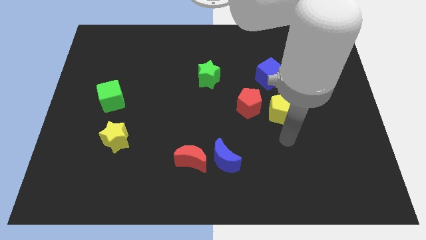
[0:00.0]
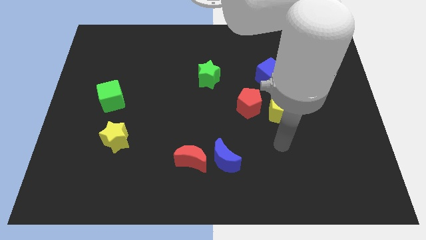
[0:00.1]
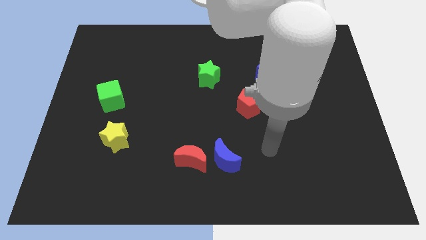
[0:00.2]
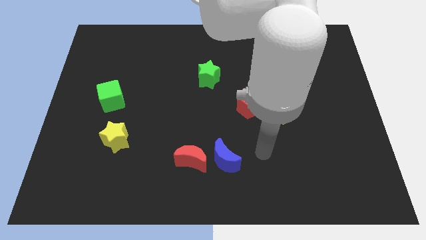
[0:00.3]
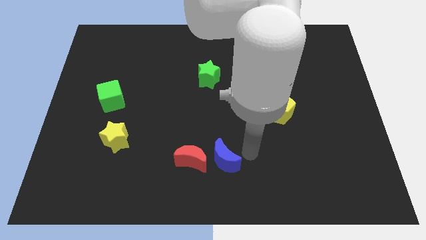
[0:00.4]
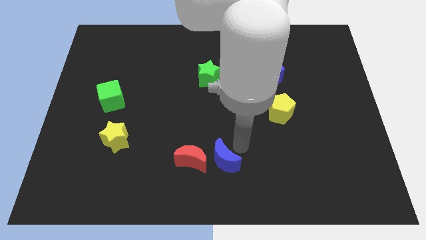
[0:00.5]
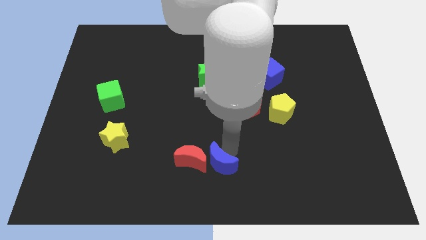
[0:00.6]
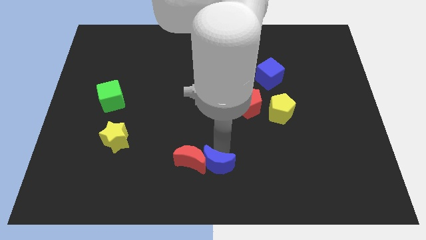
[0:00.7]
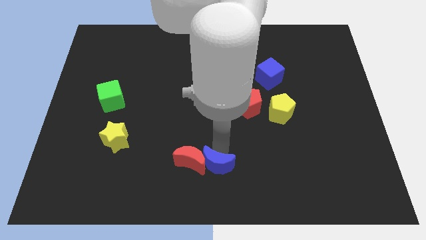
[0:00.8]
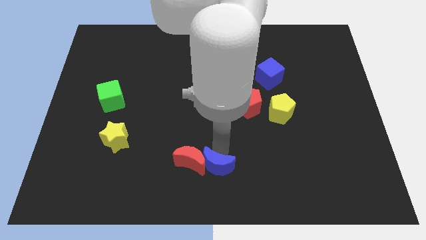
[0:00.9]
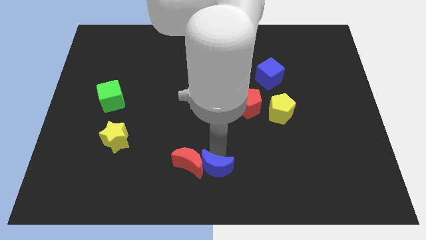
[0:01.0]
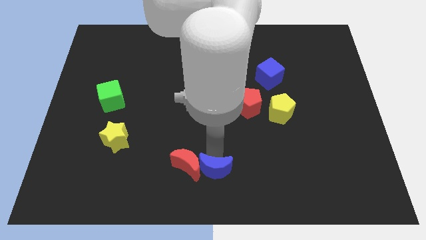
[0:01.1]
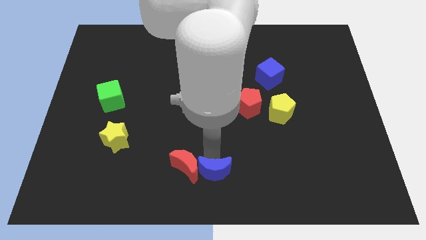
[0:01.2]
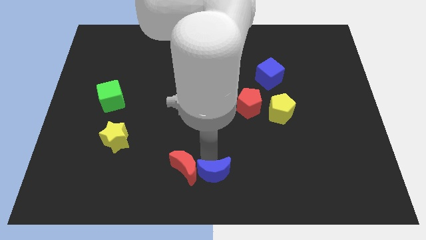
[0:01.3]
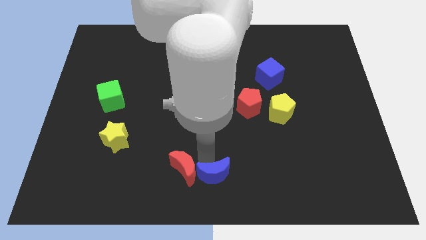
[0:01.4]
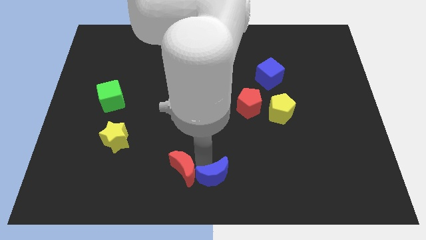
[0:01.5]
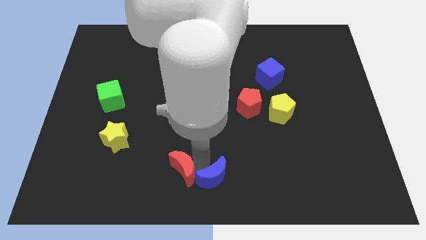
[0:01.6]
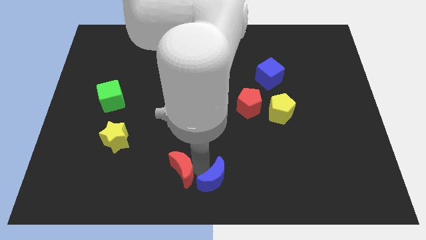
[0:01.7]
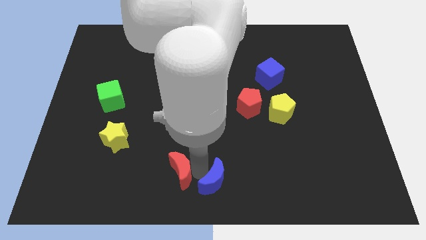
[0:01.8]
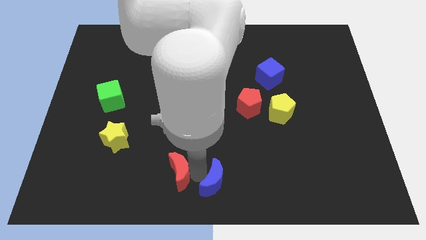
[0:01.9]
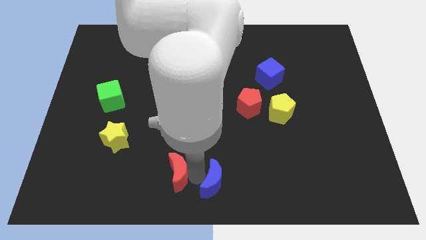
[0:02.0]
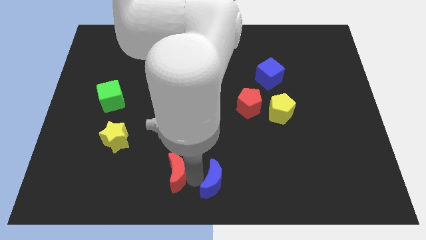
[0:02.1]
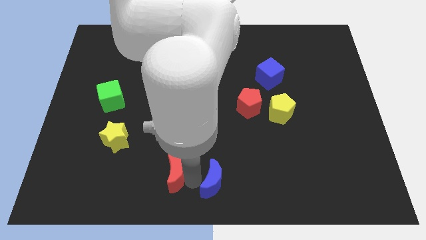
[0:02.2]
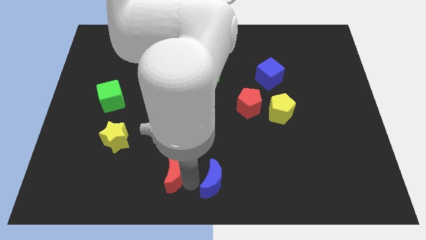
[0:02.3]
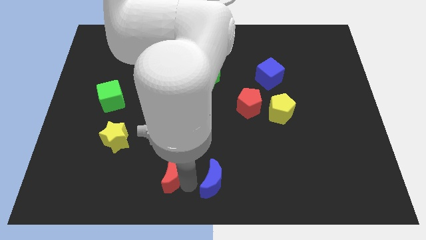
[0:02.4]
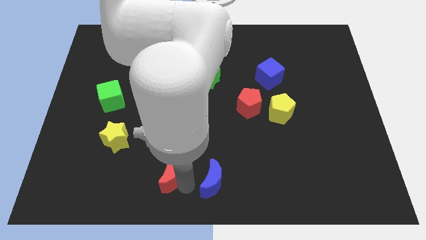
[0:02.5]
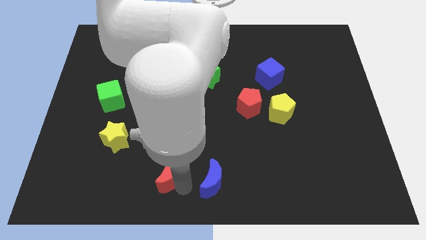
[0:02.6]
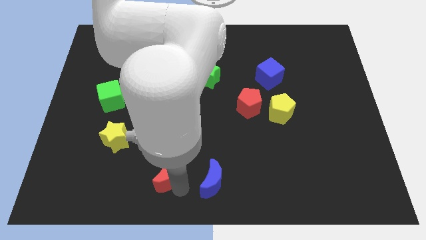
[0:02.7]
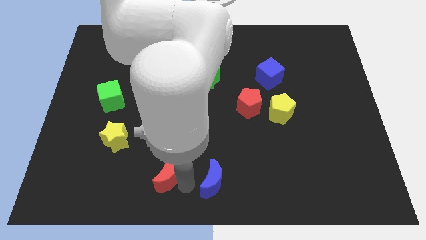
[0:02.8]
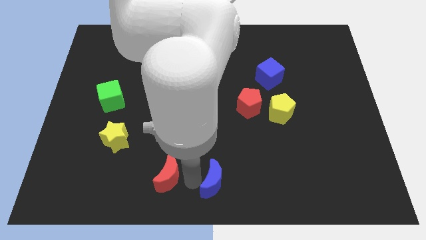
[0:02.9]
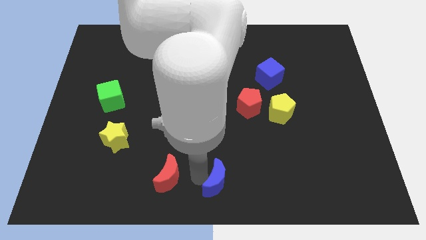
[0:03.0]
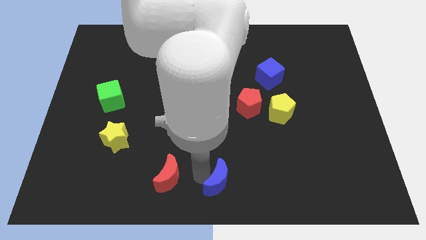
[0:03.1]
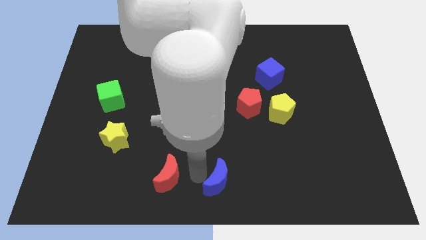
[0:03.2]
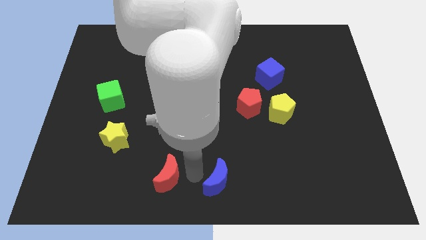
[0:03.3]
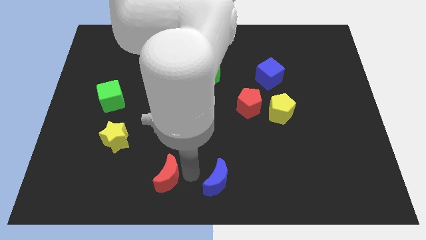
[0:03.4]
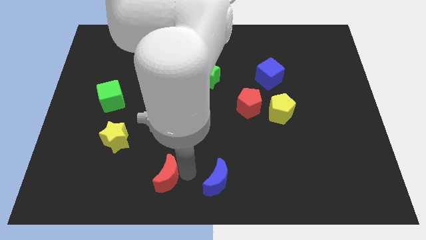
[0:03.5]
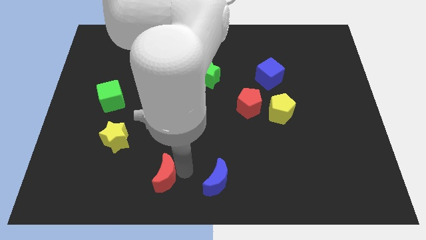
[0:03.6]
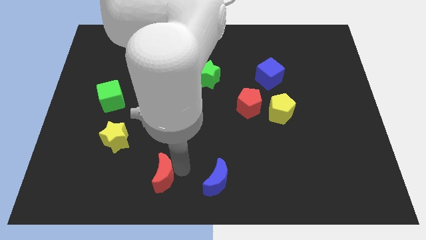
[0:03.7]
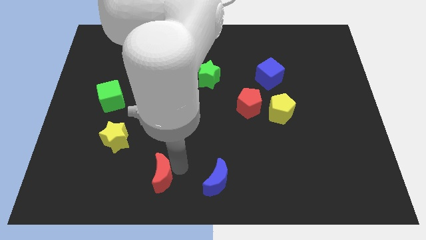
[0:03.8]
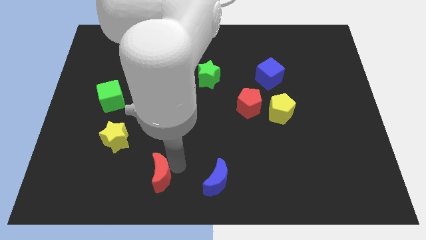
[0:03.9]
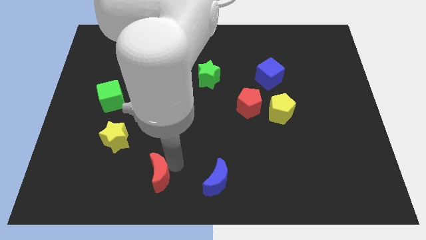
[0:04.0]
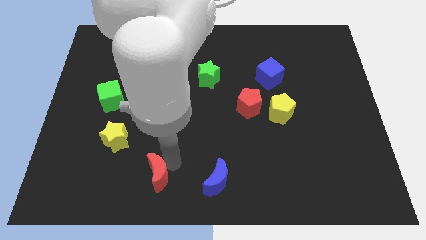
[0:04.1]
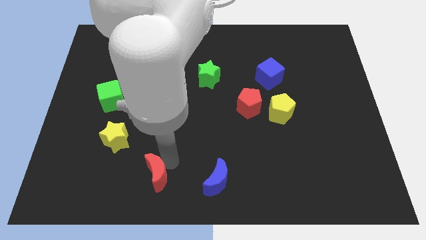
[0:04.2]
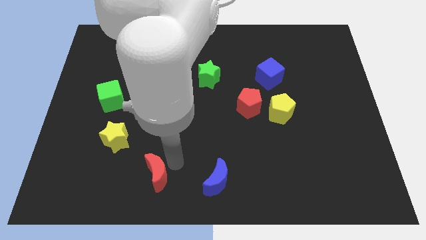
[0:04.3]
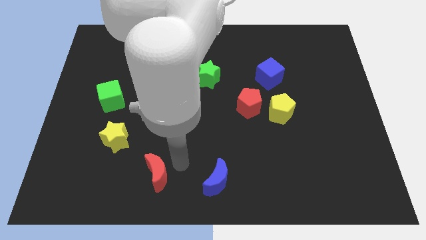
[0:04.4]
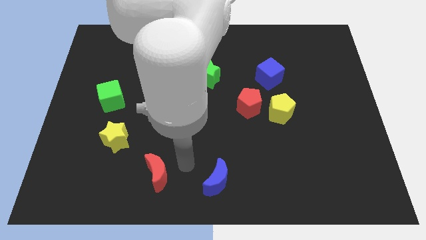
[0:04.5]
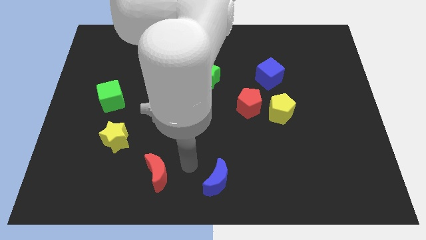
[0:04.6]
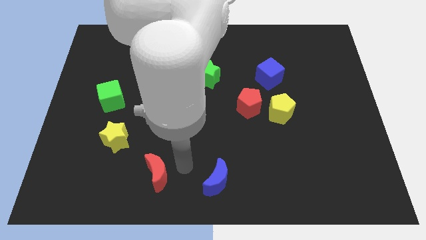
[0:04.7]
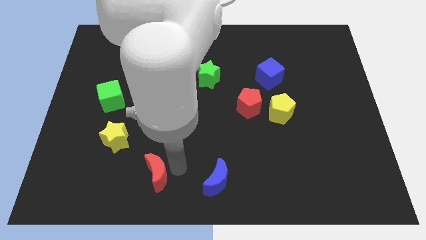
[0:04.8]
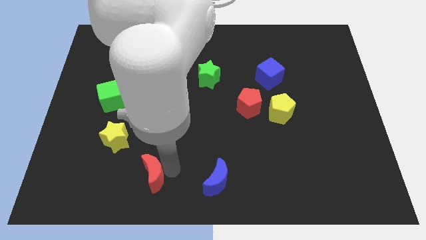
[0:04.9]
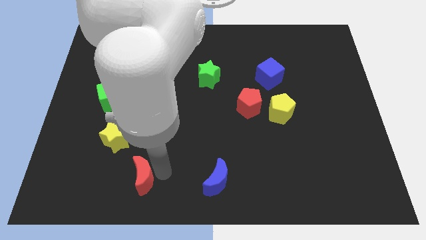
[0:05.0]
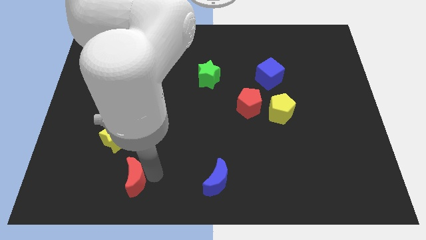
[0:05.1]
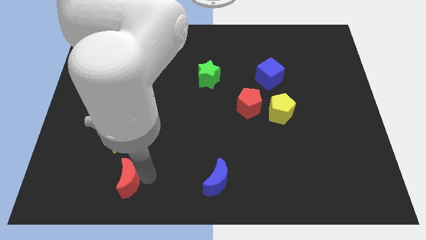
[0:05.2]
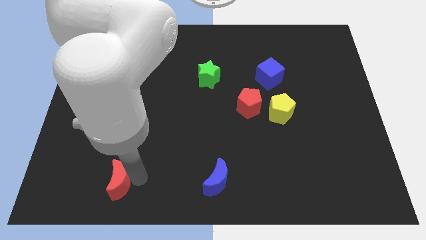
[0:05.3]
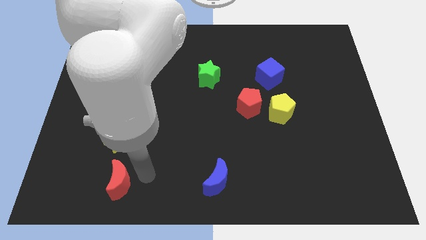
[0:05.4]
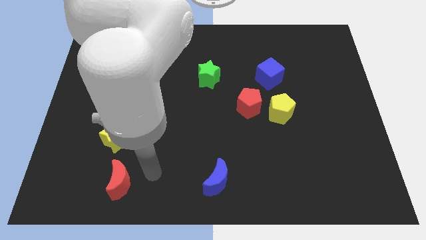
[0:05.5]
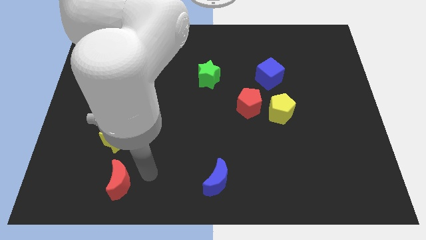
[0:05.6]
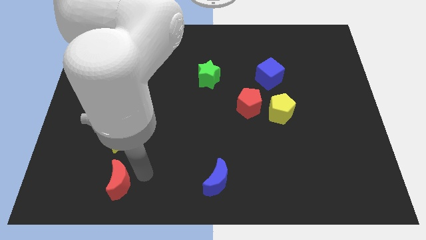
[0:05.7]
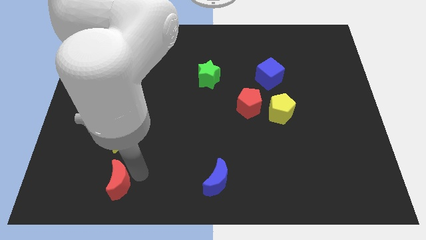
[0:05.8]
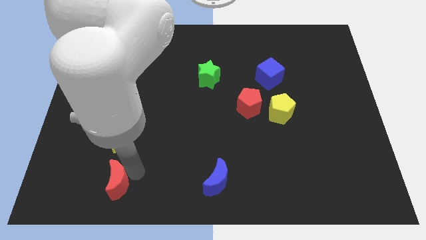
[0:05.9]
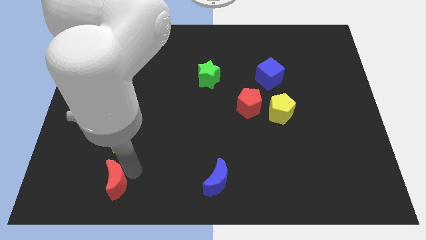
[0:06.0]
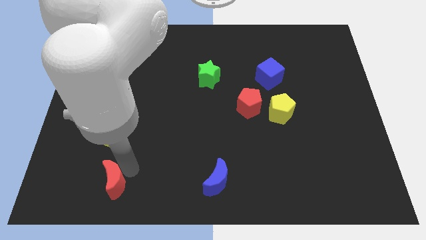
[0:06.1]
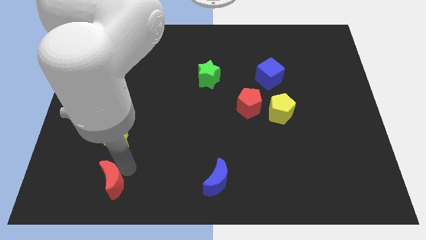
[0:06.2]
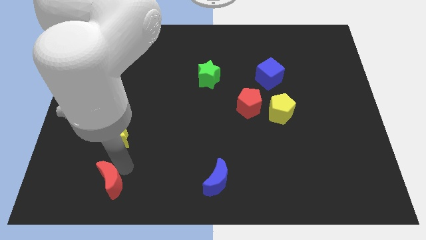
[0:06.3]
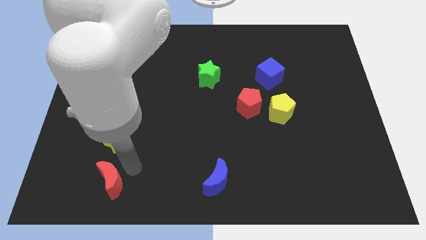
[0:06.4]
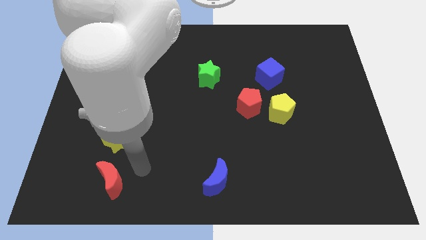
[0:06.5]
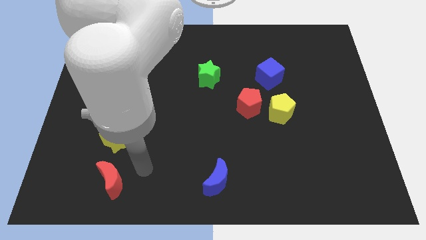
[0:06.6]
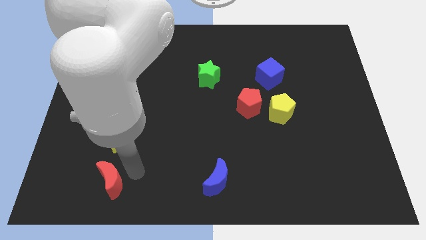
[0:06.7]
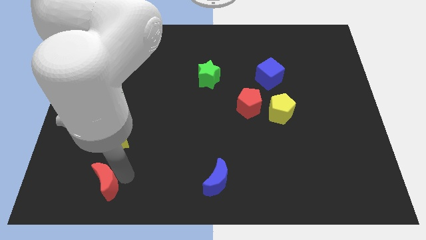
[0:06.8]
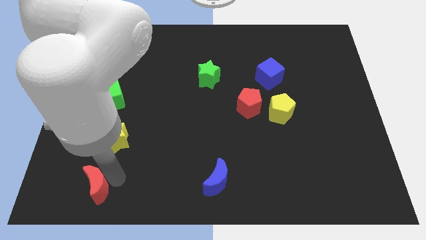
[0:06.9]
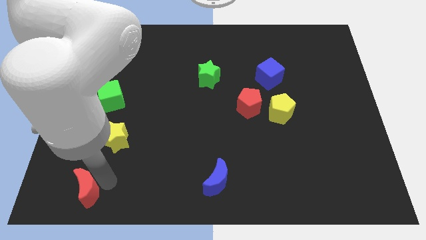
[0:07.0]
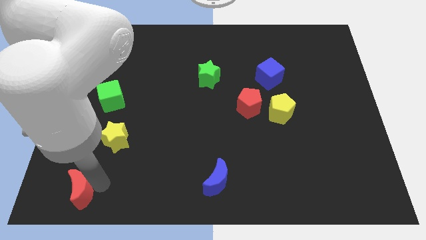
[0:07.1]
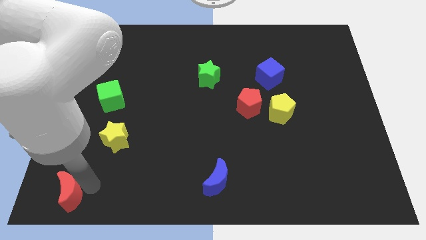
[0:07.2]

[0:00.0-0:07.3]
slide the red moon to the bottom left corner
